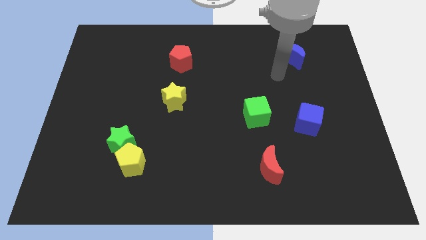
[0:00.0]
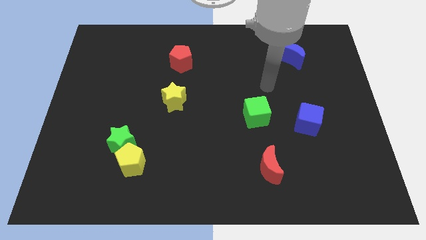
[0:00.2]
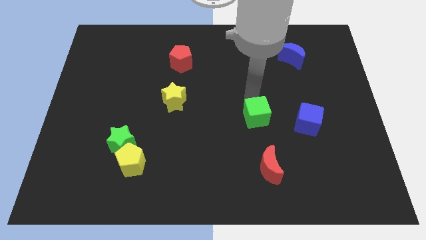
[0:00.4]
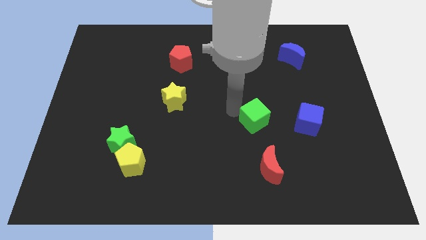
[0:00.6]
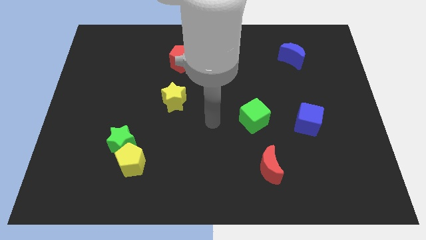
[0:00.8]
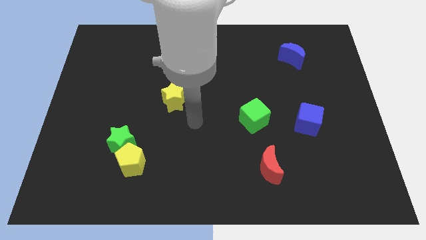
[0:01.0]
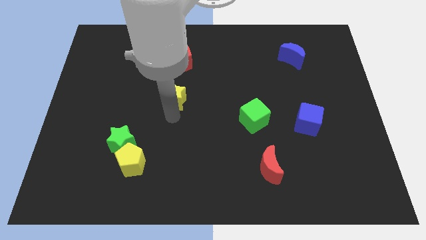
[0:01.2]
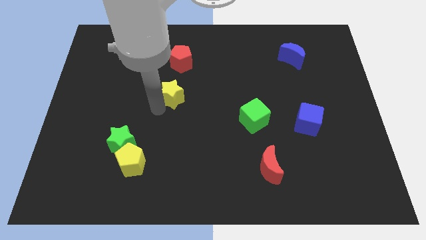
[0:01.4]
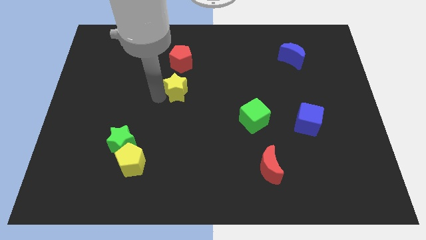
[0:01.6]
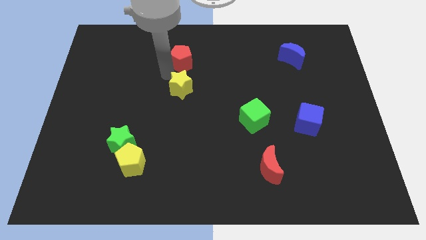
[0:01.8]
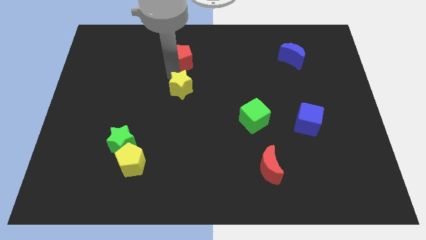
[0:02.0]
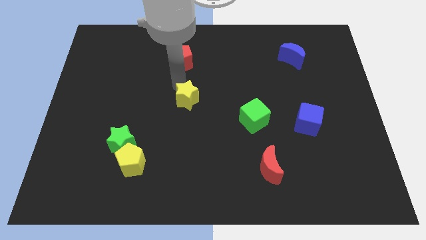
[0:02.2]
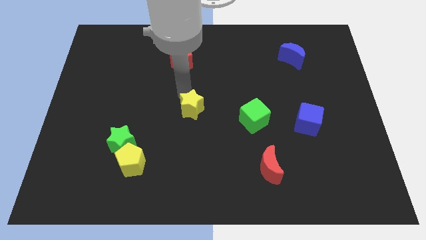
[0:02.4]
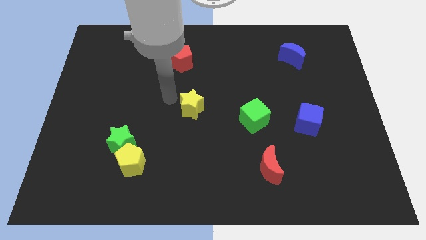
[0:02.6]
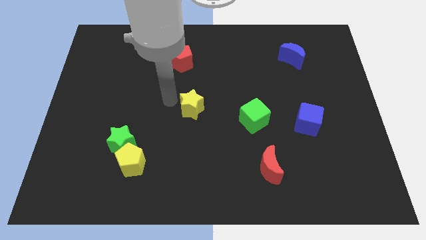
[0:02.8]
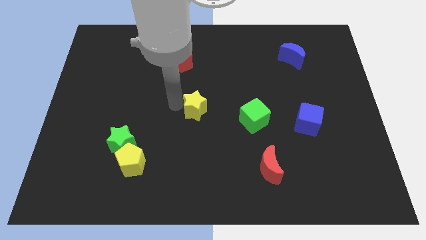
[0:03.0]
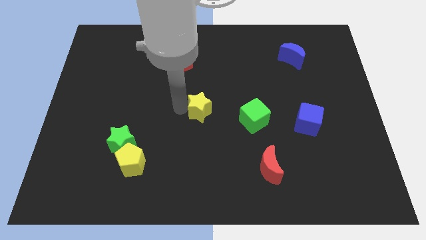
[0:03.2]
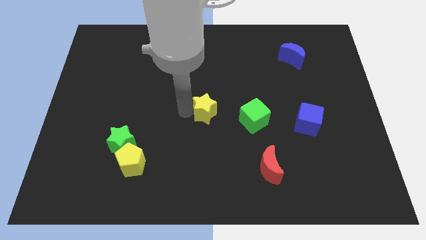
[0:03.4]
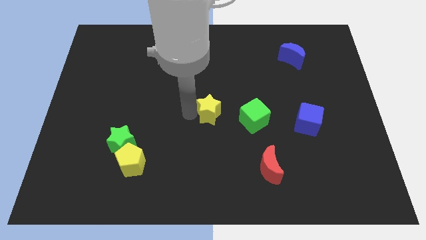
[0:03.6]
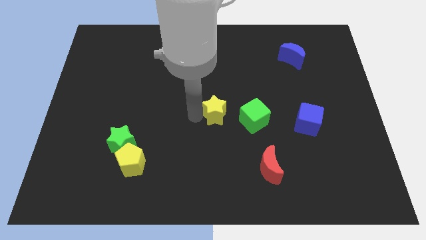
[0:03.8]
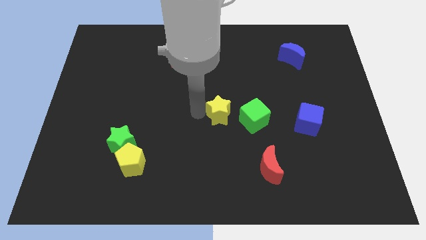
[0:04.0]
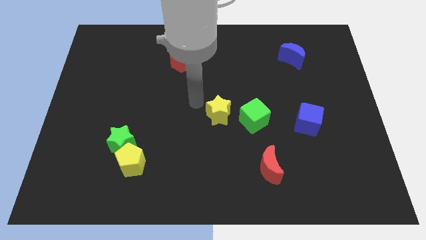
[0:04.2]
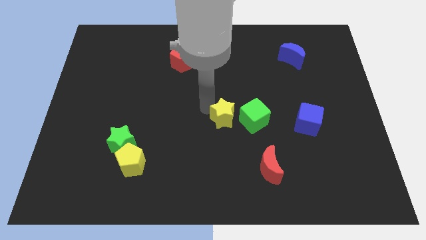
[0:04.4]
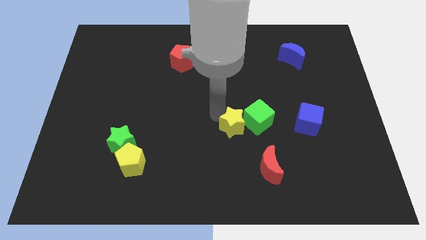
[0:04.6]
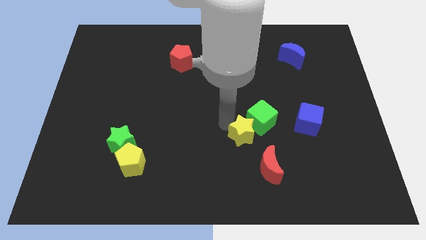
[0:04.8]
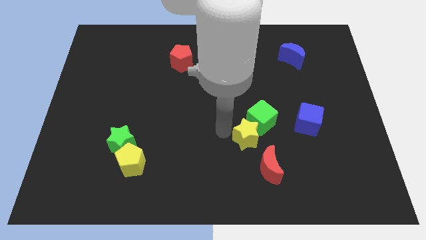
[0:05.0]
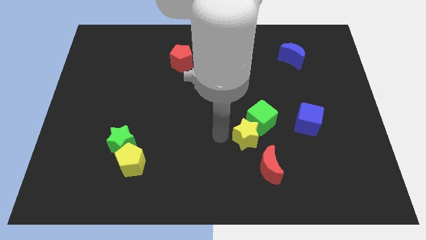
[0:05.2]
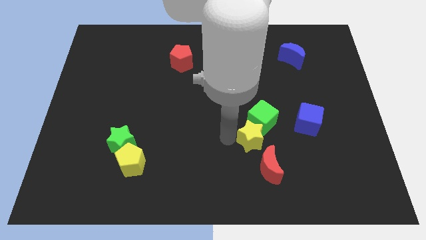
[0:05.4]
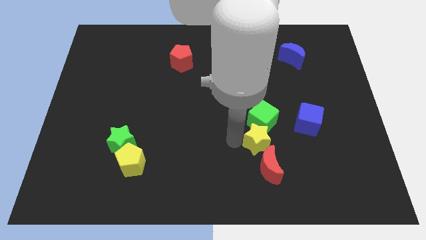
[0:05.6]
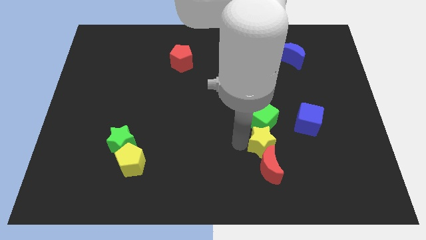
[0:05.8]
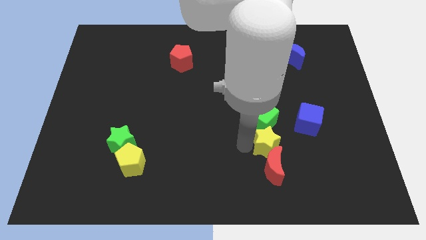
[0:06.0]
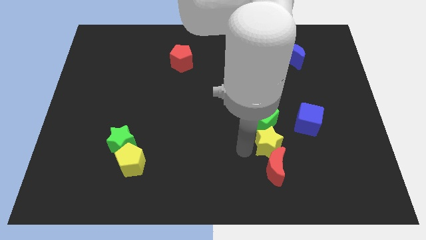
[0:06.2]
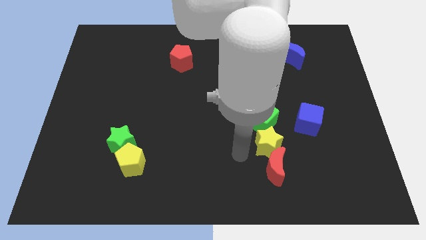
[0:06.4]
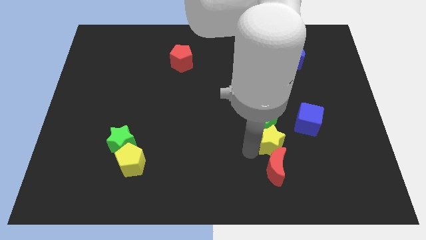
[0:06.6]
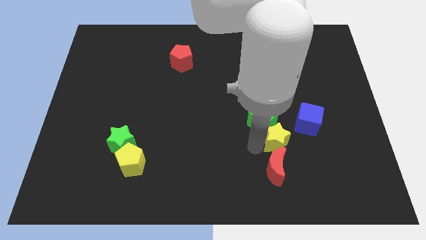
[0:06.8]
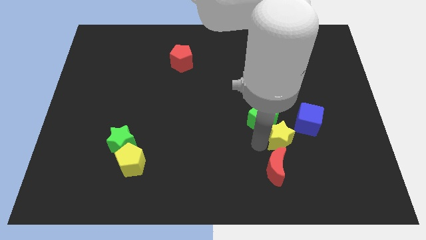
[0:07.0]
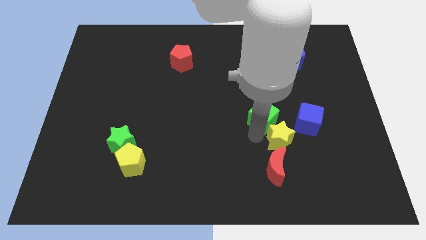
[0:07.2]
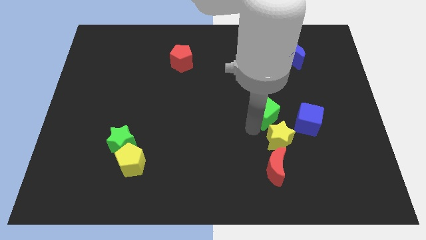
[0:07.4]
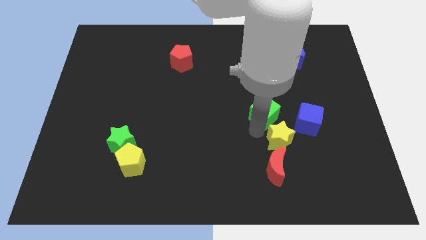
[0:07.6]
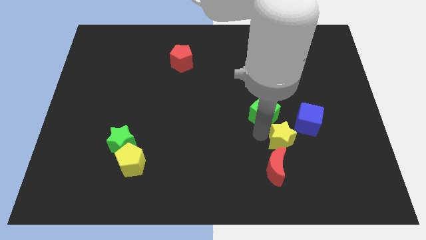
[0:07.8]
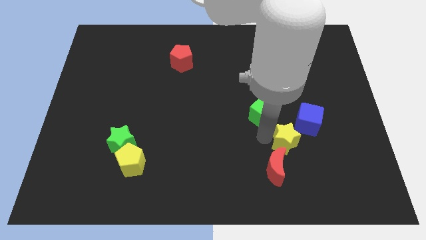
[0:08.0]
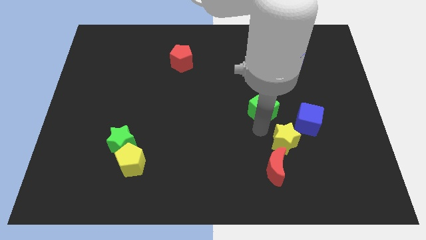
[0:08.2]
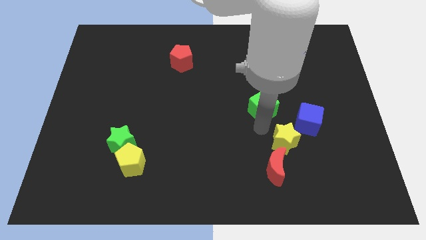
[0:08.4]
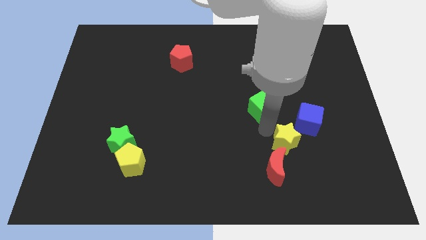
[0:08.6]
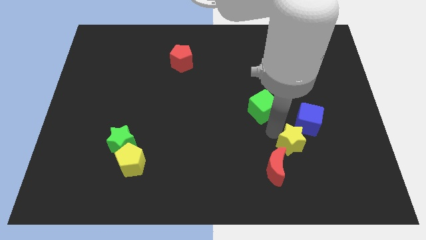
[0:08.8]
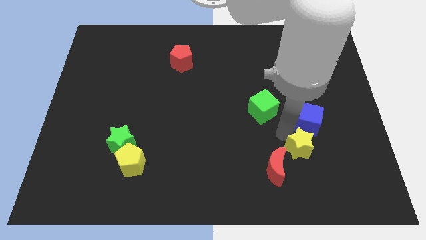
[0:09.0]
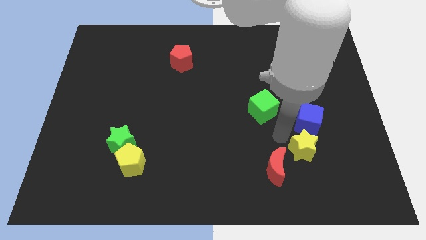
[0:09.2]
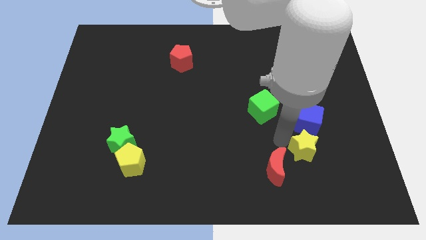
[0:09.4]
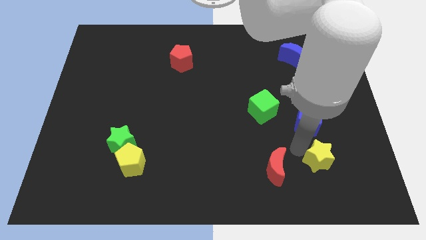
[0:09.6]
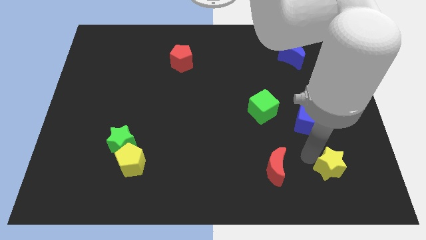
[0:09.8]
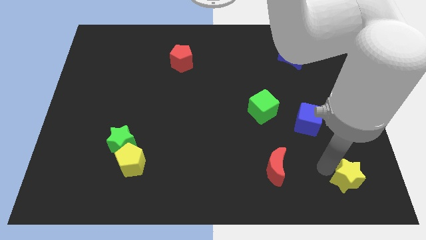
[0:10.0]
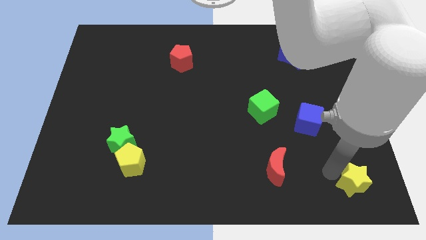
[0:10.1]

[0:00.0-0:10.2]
put the yellow star to the bottom right

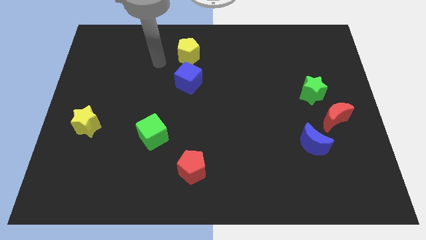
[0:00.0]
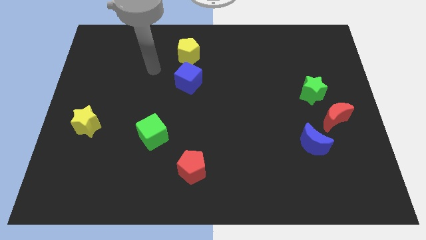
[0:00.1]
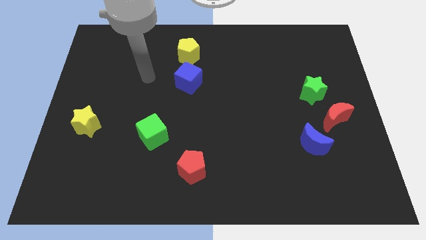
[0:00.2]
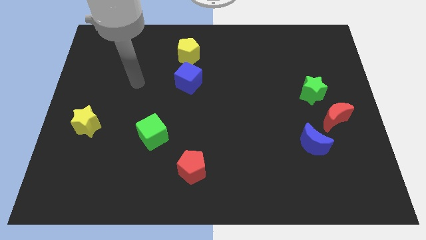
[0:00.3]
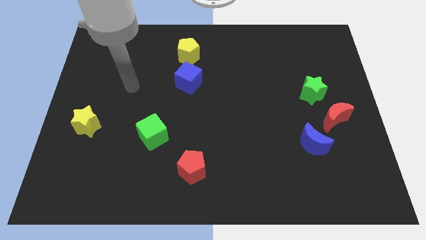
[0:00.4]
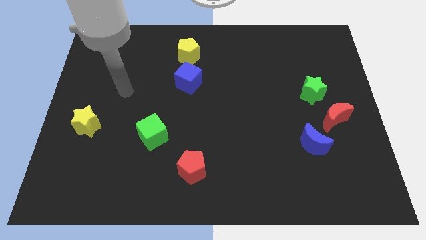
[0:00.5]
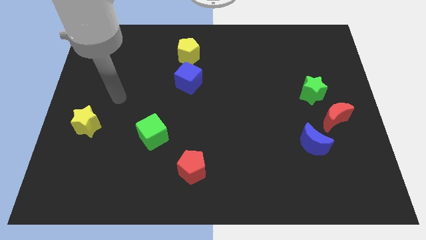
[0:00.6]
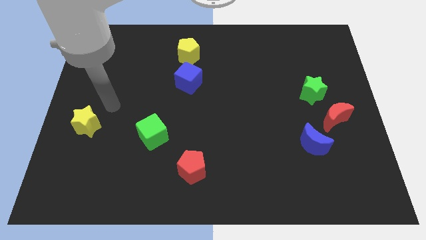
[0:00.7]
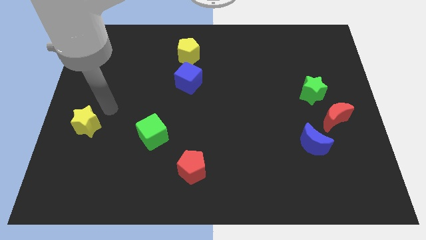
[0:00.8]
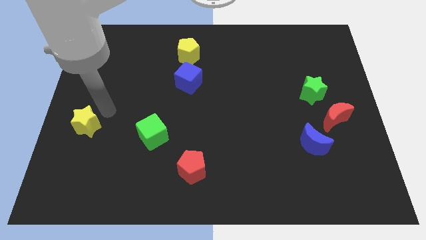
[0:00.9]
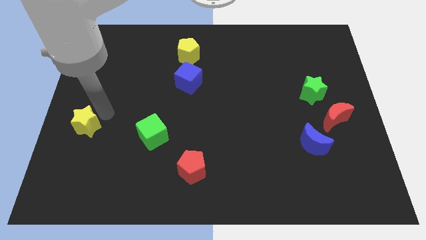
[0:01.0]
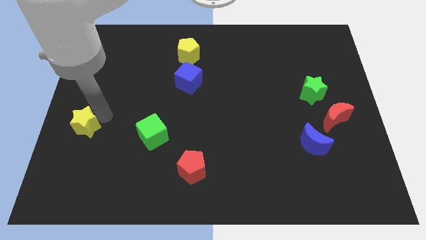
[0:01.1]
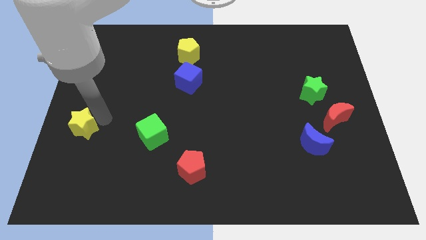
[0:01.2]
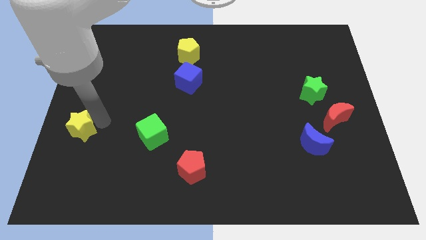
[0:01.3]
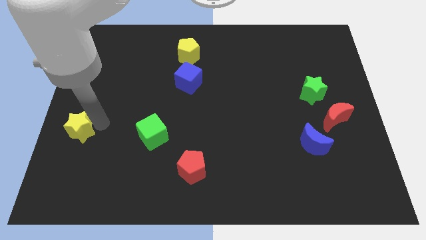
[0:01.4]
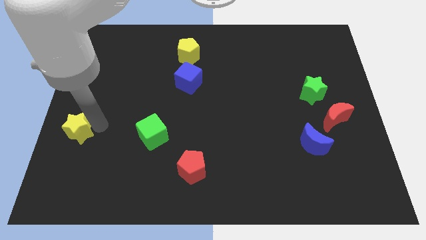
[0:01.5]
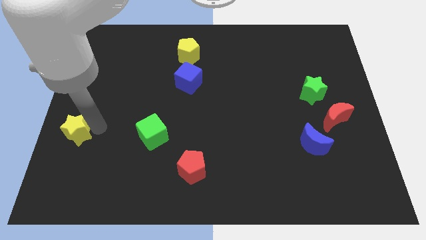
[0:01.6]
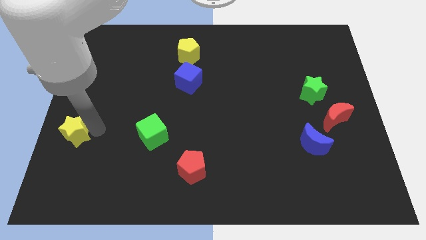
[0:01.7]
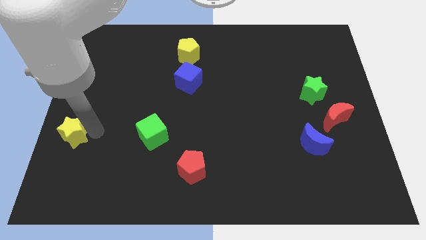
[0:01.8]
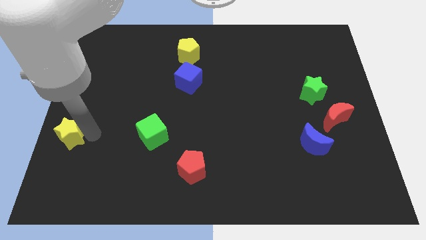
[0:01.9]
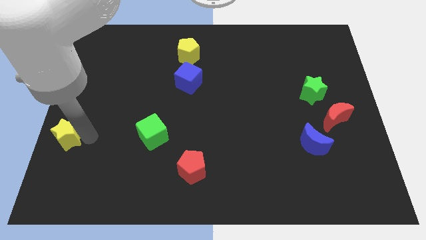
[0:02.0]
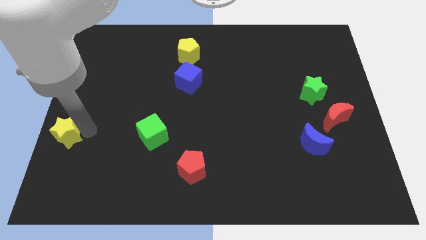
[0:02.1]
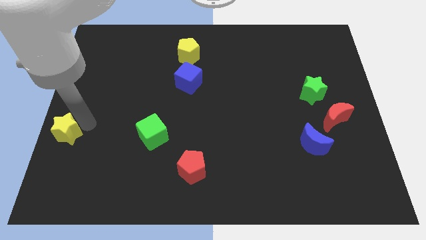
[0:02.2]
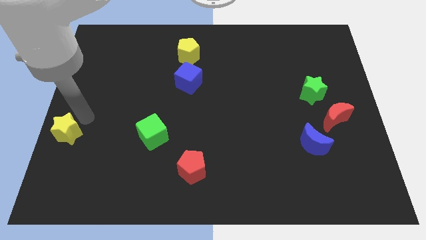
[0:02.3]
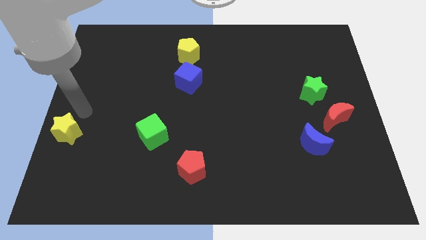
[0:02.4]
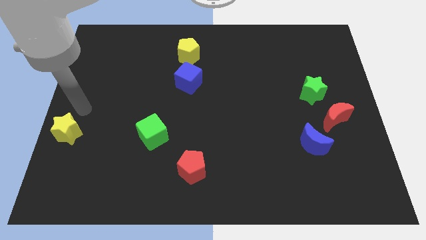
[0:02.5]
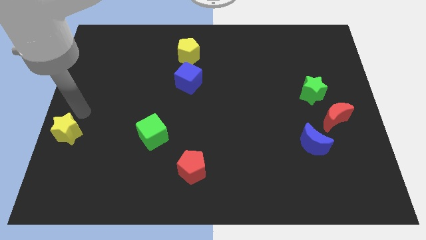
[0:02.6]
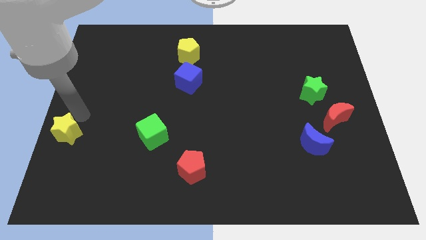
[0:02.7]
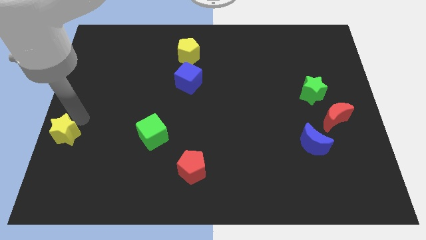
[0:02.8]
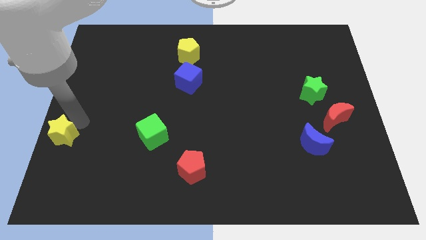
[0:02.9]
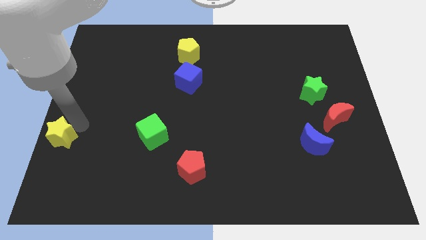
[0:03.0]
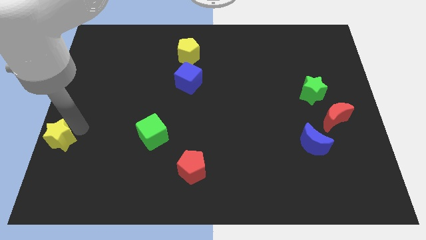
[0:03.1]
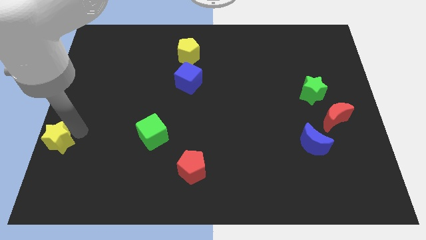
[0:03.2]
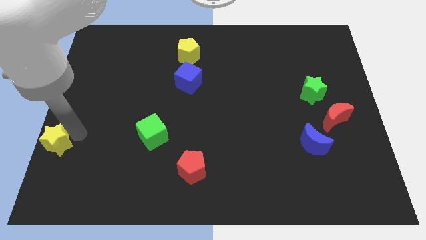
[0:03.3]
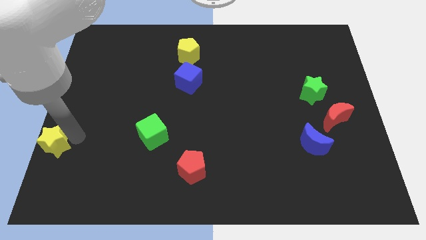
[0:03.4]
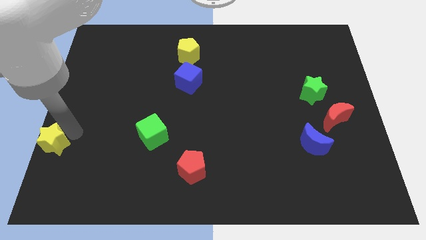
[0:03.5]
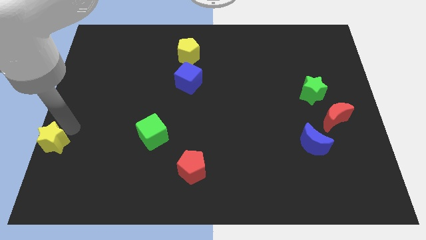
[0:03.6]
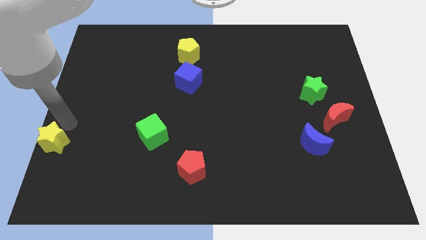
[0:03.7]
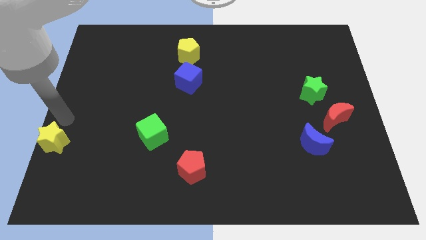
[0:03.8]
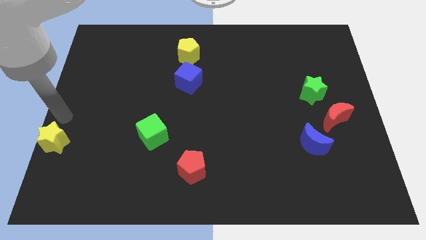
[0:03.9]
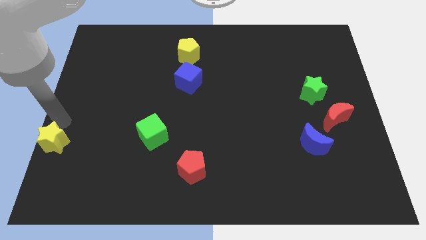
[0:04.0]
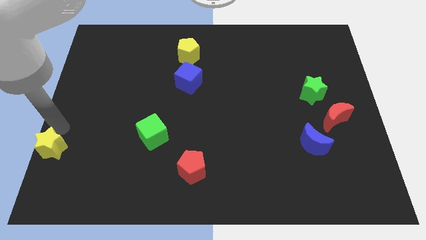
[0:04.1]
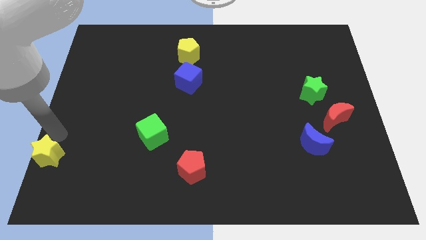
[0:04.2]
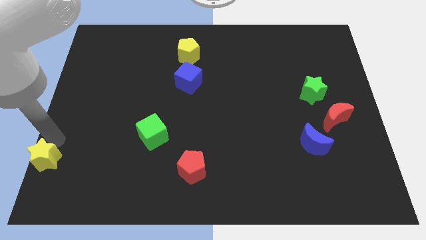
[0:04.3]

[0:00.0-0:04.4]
slide the yellow star to the bottom left corner
